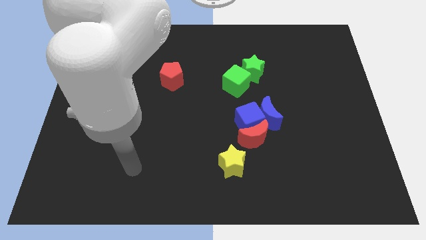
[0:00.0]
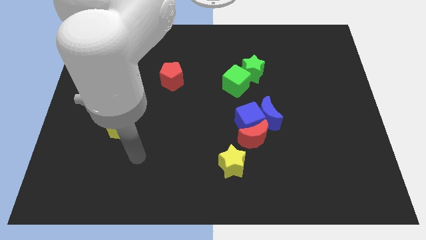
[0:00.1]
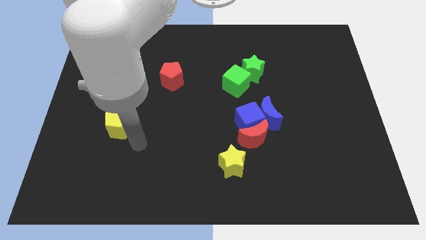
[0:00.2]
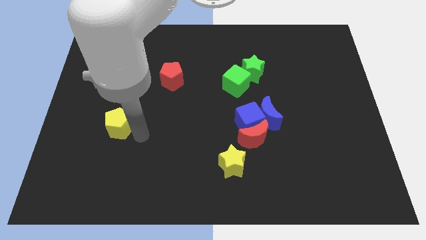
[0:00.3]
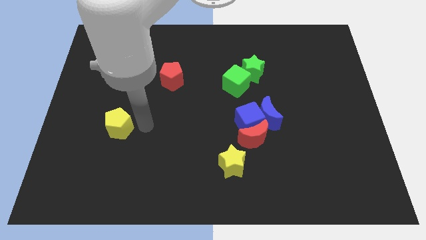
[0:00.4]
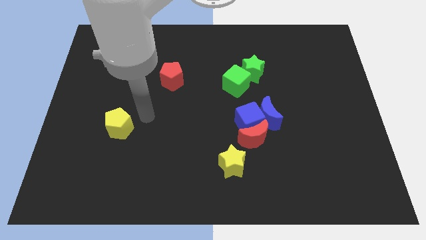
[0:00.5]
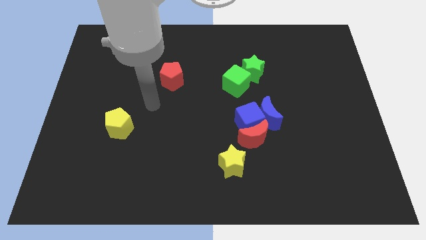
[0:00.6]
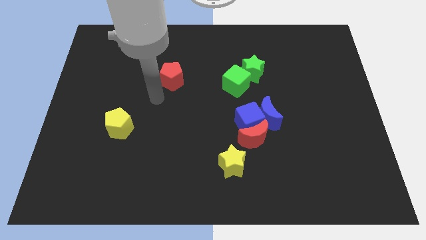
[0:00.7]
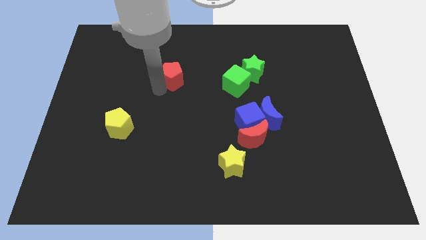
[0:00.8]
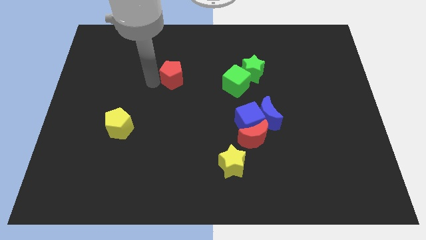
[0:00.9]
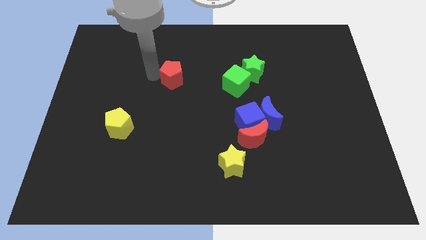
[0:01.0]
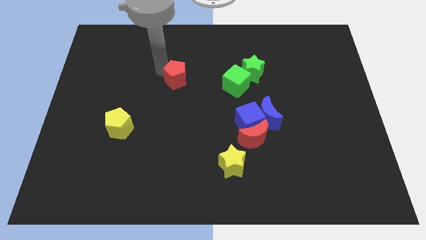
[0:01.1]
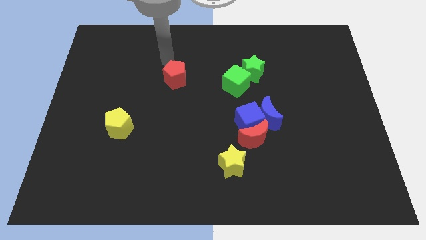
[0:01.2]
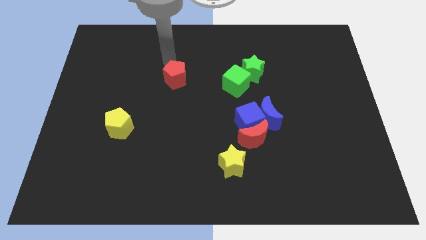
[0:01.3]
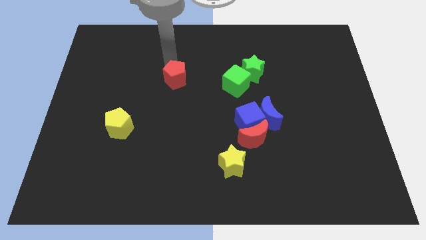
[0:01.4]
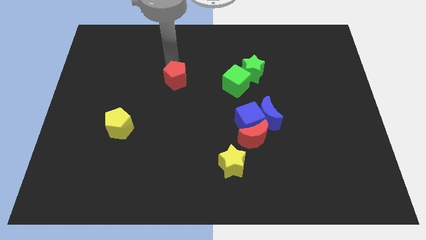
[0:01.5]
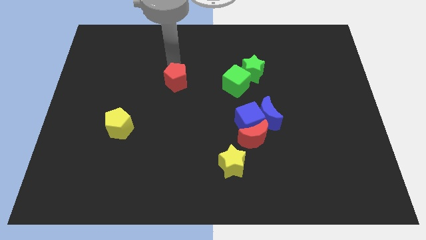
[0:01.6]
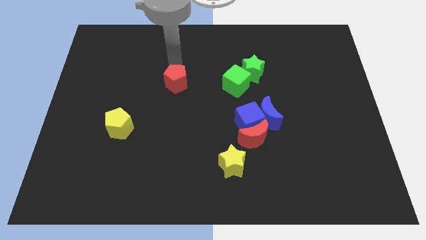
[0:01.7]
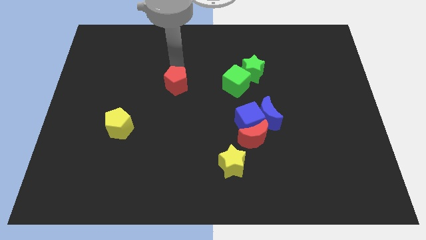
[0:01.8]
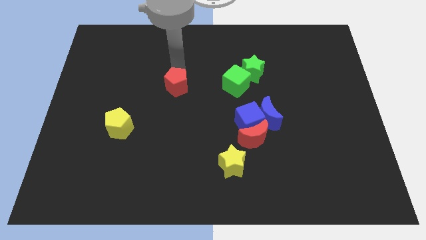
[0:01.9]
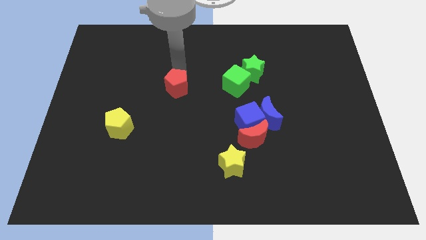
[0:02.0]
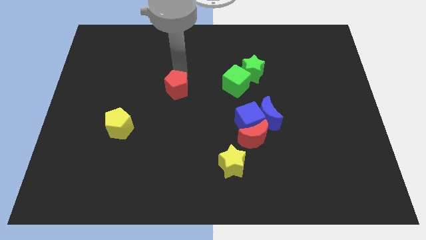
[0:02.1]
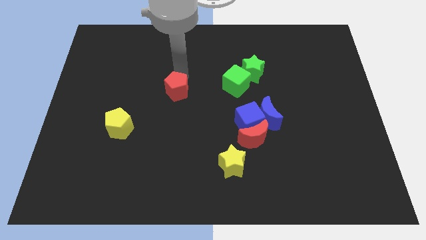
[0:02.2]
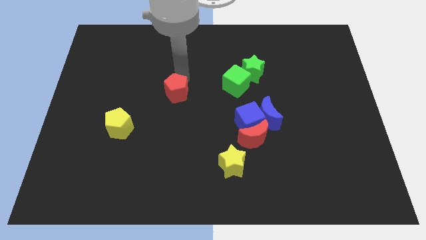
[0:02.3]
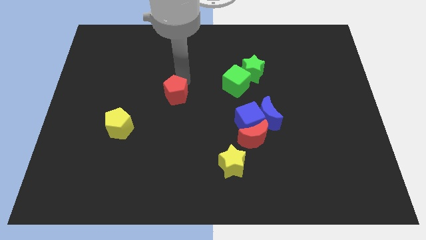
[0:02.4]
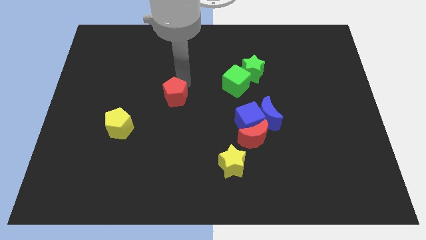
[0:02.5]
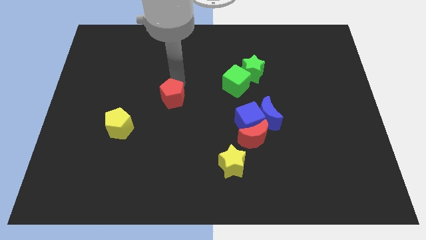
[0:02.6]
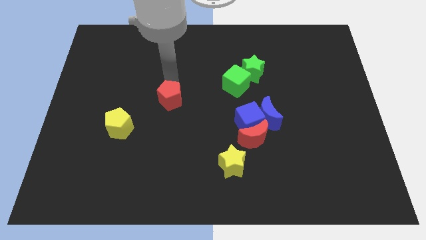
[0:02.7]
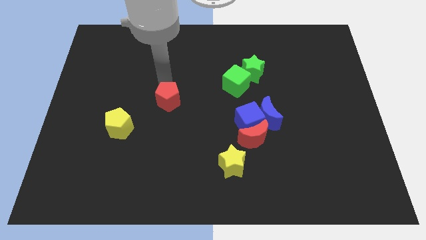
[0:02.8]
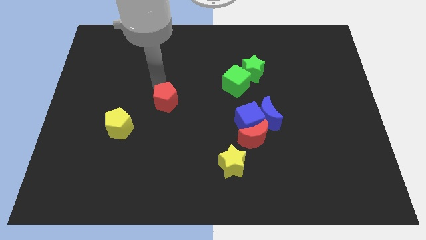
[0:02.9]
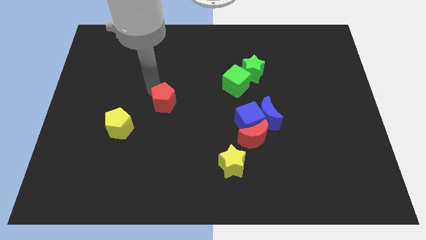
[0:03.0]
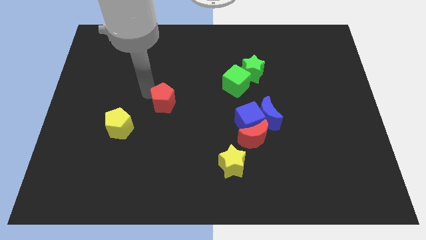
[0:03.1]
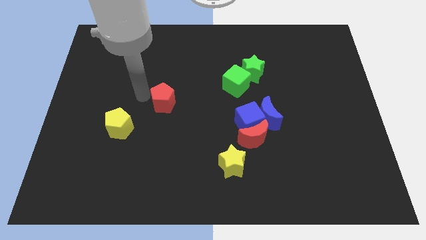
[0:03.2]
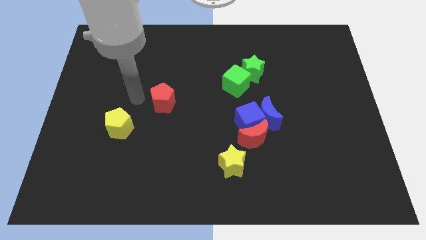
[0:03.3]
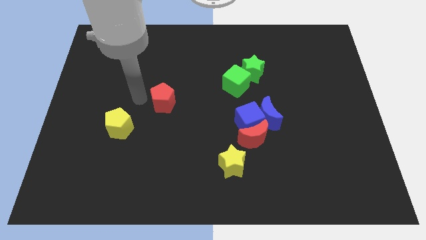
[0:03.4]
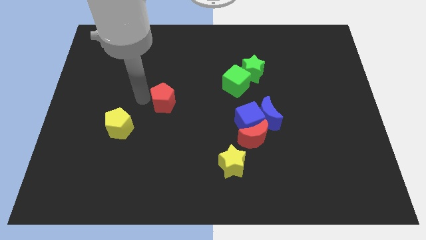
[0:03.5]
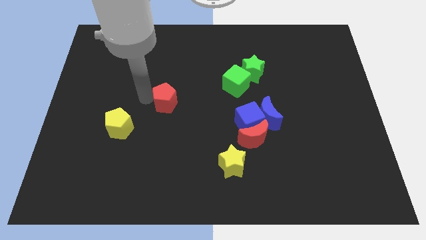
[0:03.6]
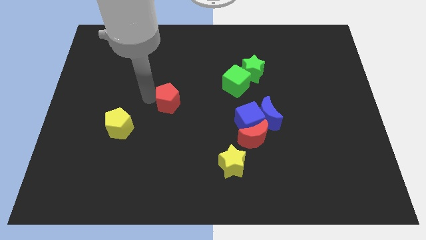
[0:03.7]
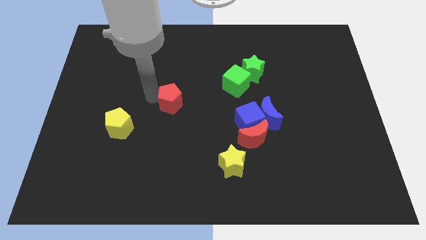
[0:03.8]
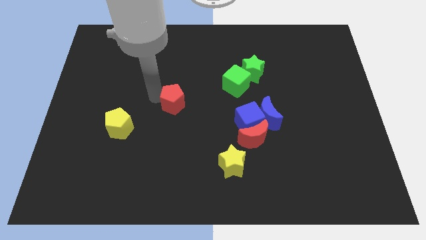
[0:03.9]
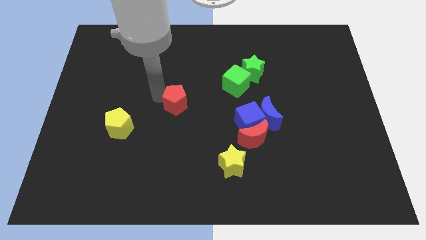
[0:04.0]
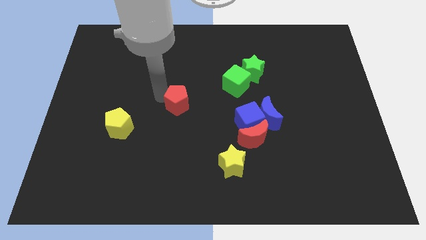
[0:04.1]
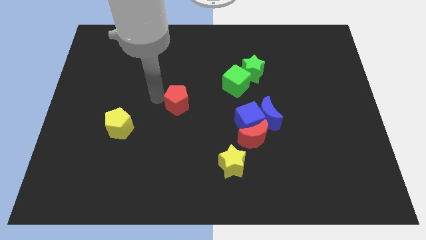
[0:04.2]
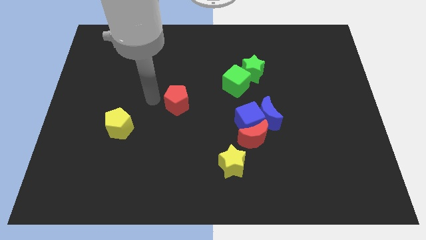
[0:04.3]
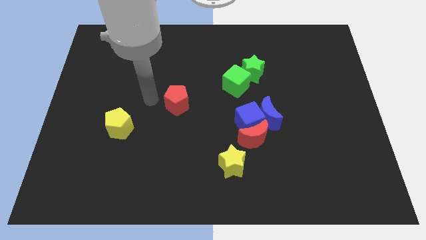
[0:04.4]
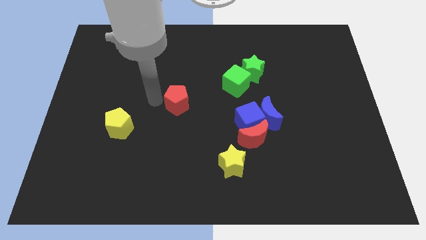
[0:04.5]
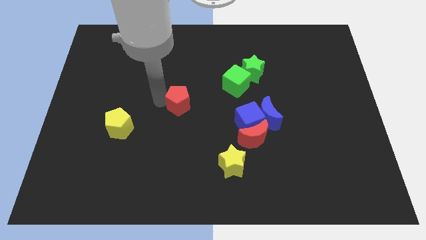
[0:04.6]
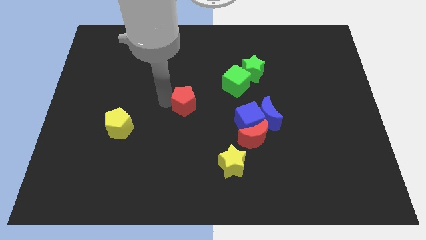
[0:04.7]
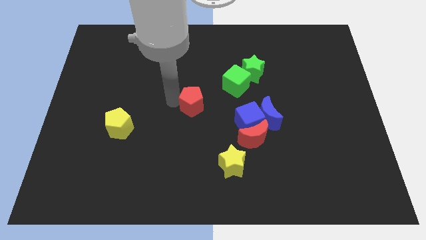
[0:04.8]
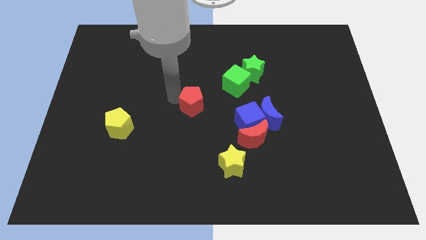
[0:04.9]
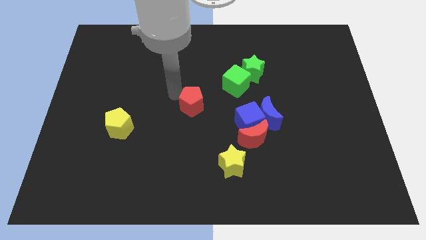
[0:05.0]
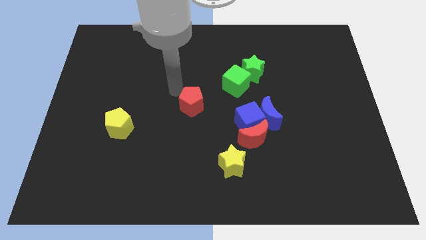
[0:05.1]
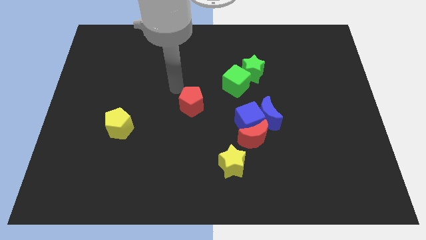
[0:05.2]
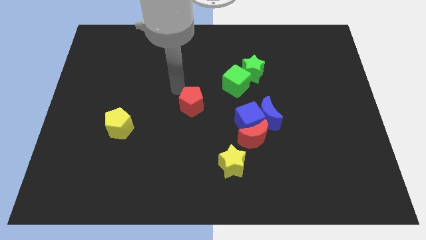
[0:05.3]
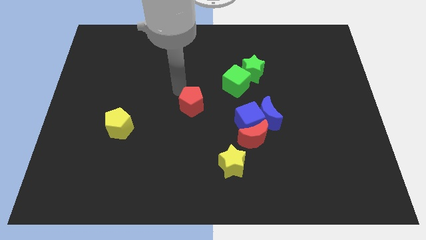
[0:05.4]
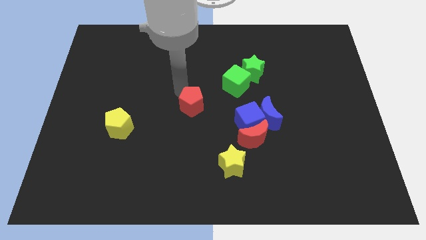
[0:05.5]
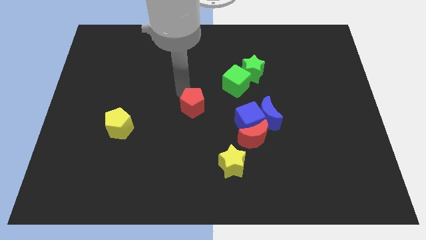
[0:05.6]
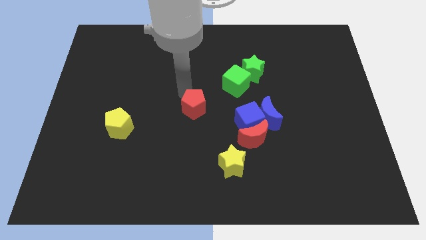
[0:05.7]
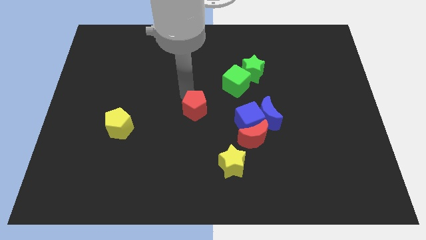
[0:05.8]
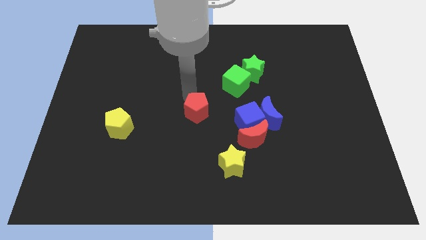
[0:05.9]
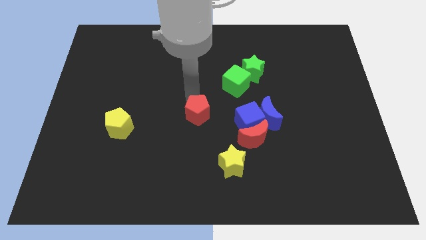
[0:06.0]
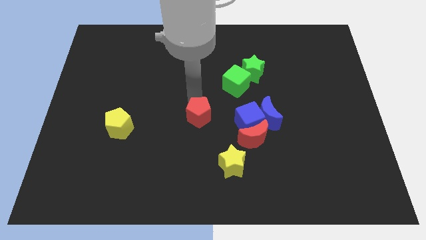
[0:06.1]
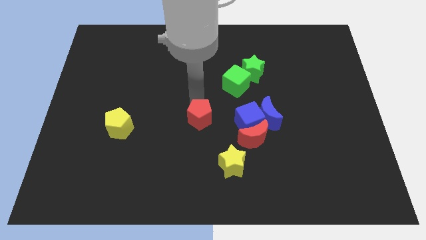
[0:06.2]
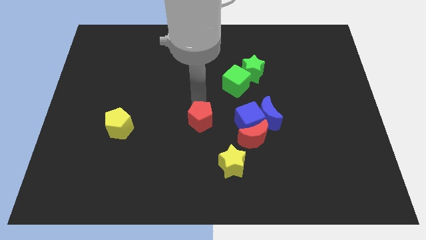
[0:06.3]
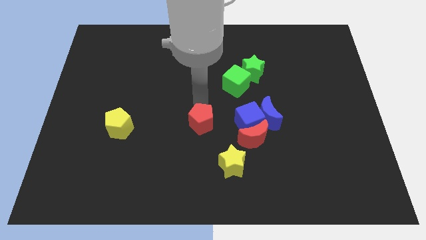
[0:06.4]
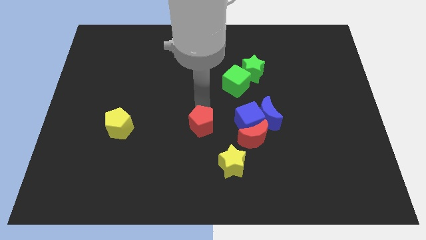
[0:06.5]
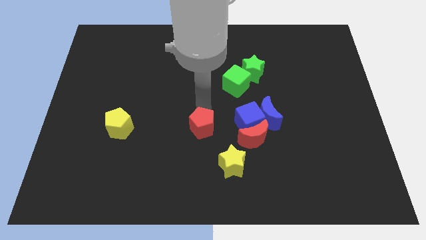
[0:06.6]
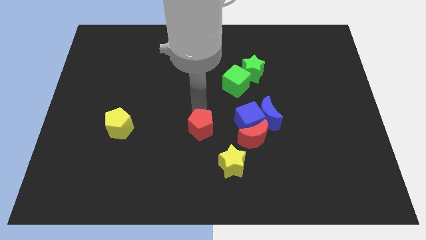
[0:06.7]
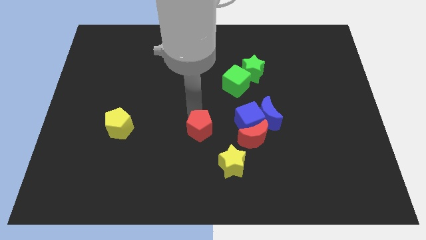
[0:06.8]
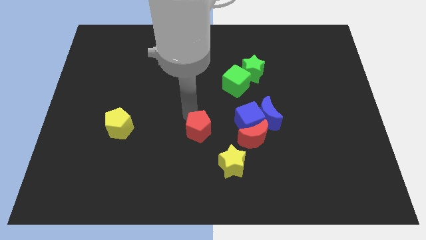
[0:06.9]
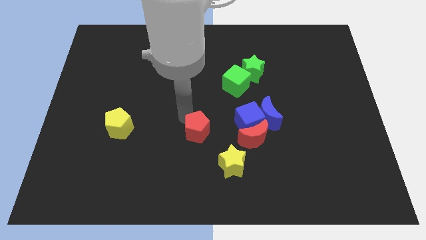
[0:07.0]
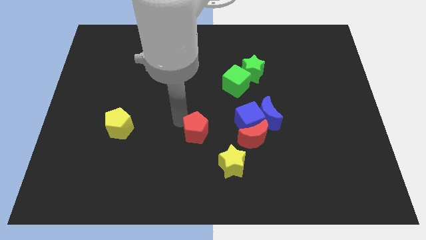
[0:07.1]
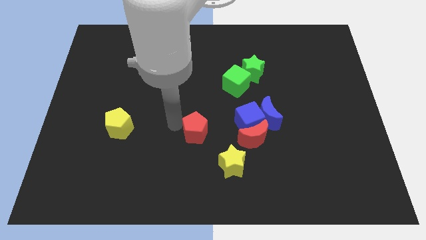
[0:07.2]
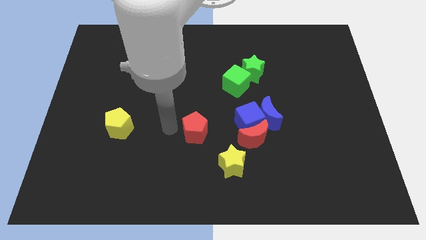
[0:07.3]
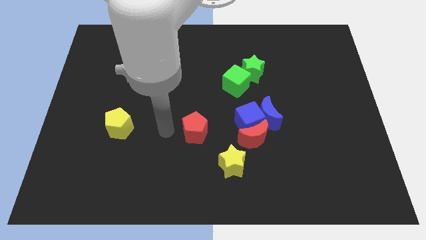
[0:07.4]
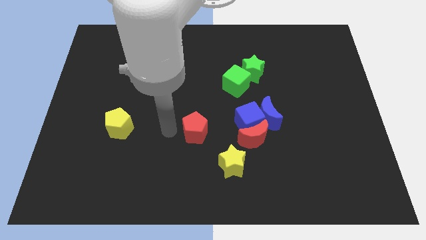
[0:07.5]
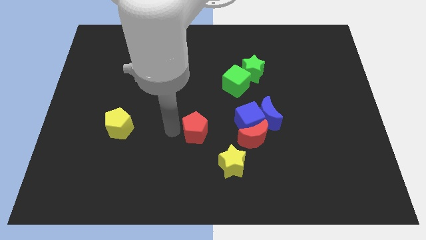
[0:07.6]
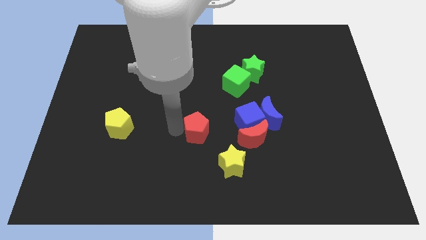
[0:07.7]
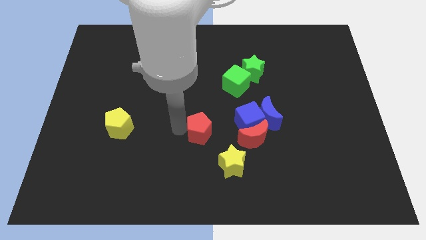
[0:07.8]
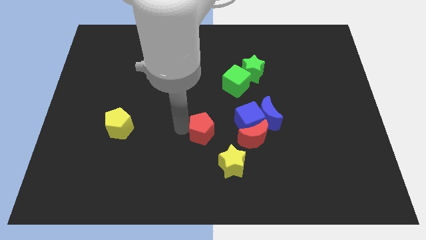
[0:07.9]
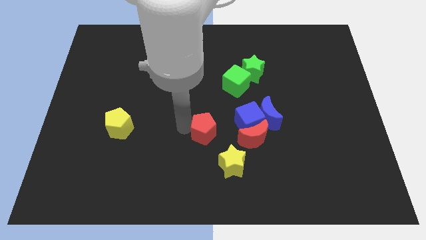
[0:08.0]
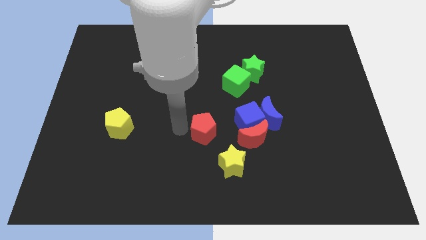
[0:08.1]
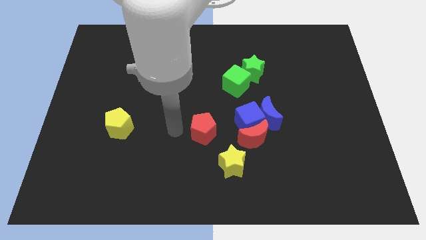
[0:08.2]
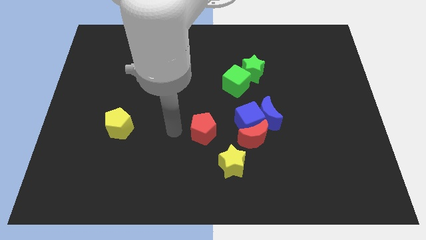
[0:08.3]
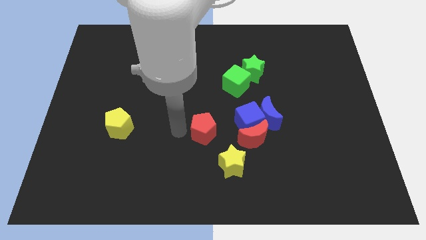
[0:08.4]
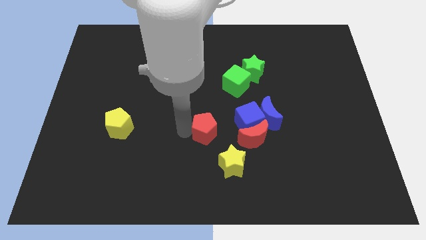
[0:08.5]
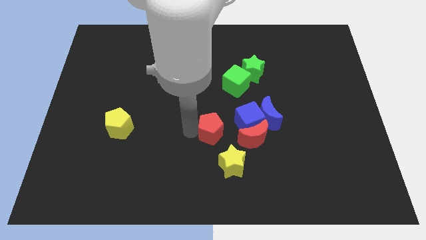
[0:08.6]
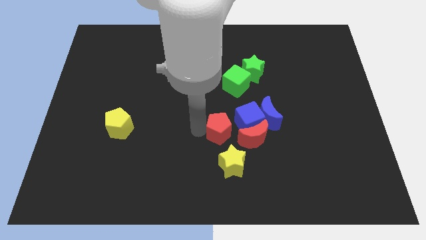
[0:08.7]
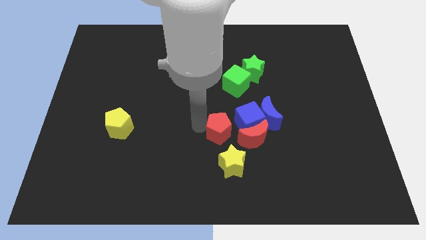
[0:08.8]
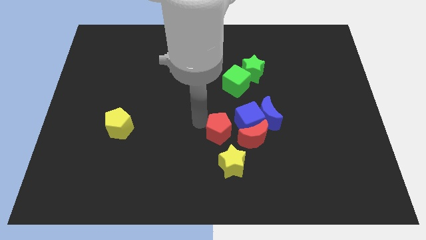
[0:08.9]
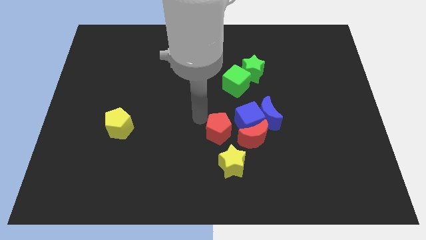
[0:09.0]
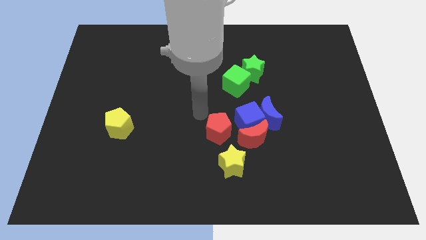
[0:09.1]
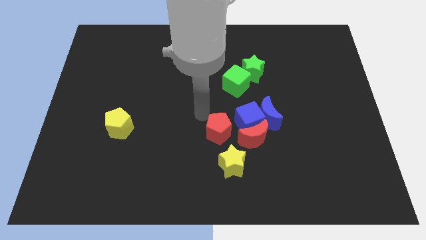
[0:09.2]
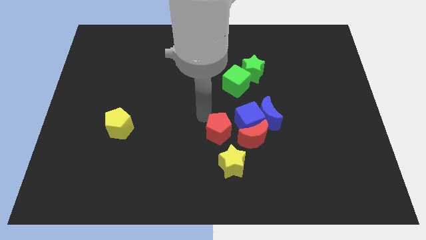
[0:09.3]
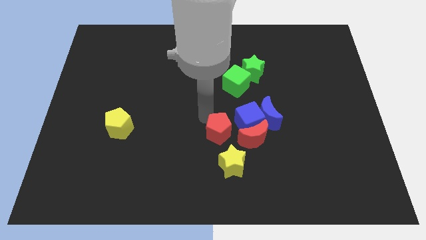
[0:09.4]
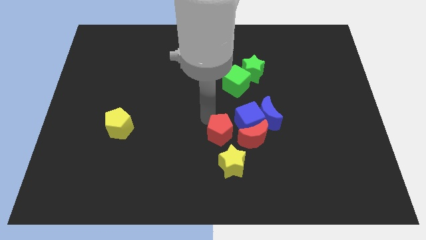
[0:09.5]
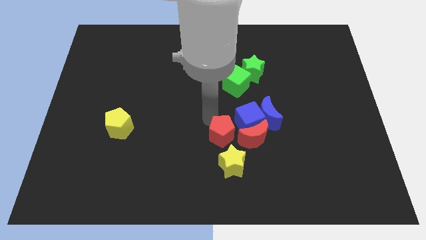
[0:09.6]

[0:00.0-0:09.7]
push the red pentagon downwards and then to the right
